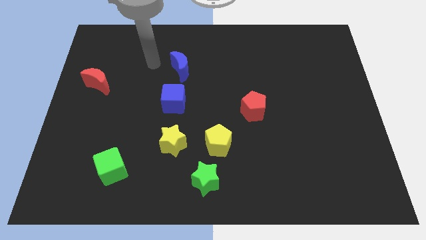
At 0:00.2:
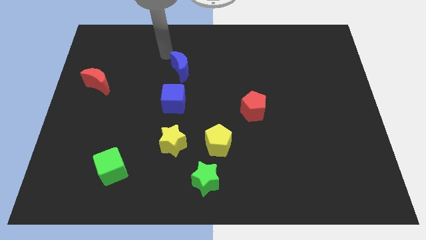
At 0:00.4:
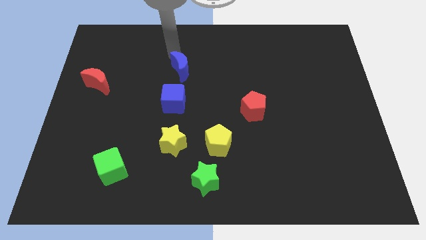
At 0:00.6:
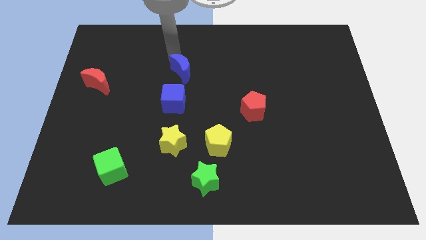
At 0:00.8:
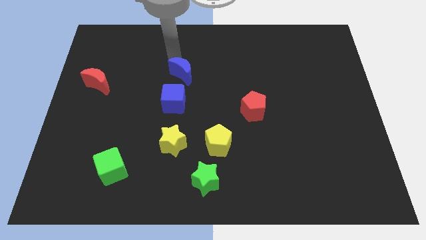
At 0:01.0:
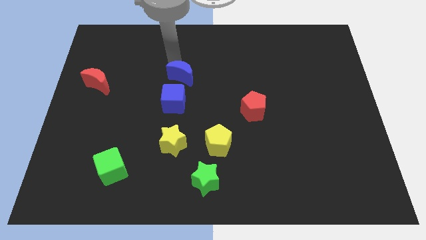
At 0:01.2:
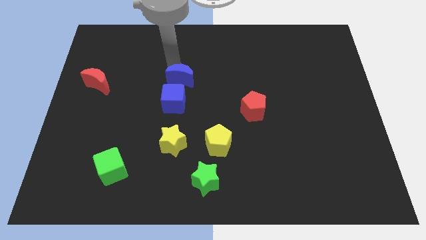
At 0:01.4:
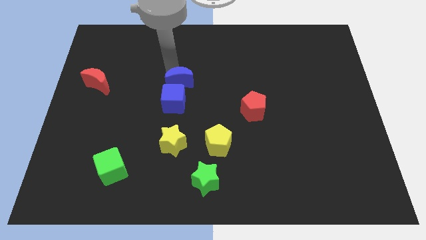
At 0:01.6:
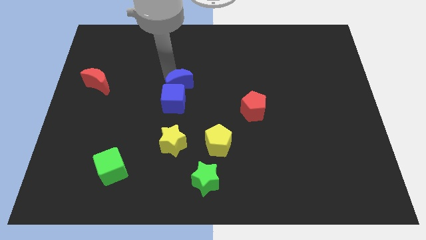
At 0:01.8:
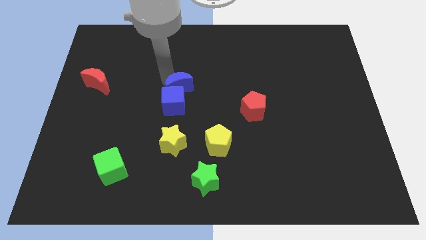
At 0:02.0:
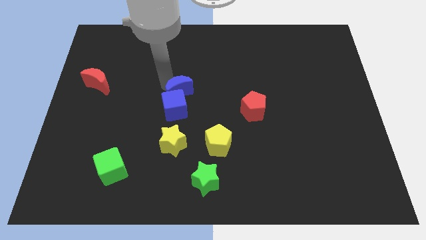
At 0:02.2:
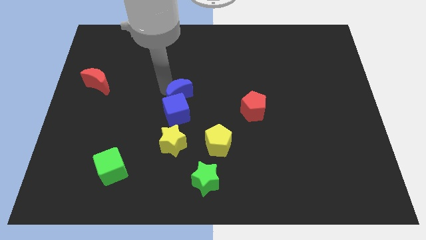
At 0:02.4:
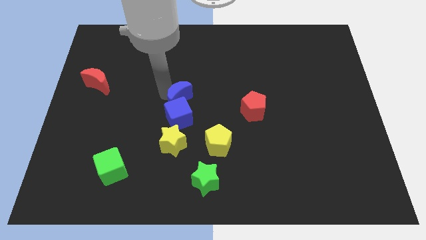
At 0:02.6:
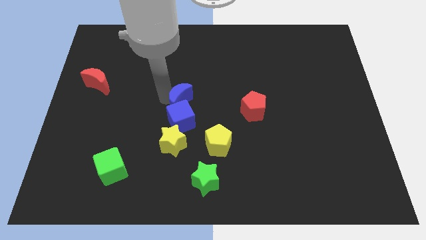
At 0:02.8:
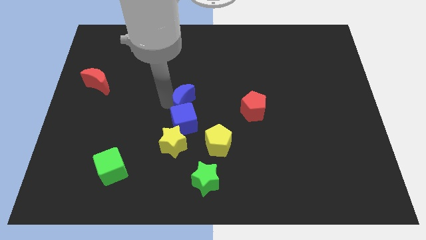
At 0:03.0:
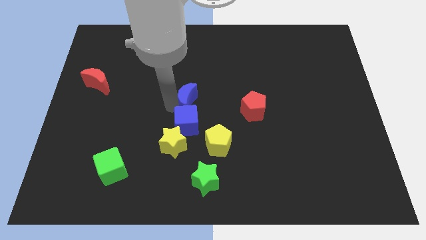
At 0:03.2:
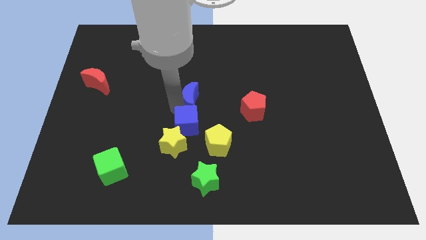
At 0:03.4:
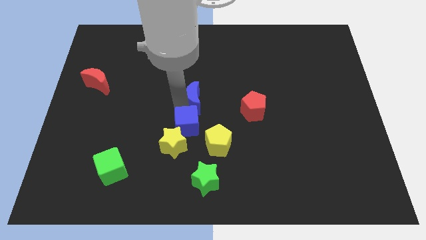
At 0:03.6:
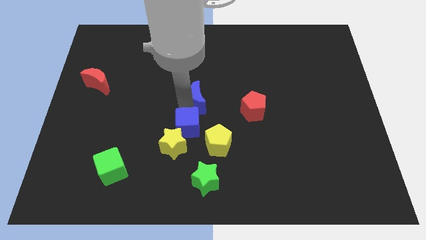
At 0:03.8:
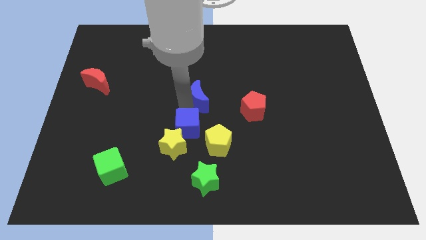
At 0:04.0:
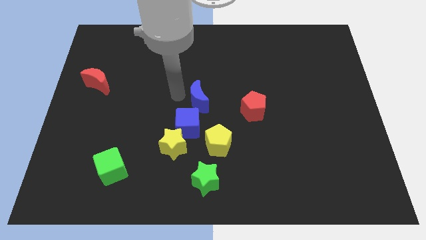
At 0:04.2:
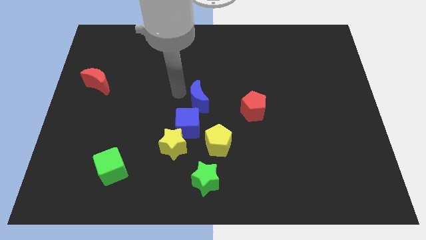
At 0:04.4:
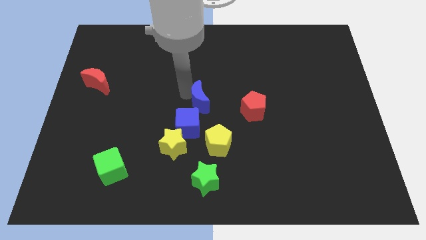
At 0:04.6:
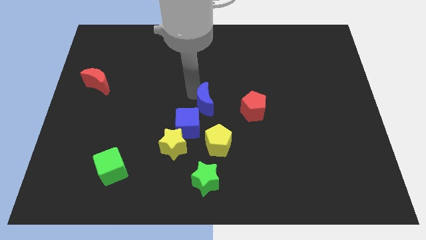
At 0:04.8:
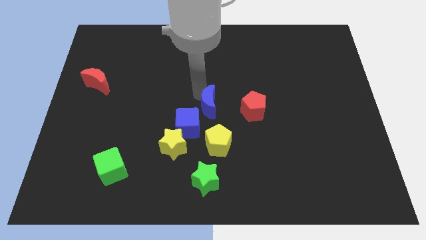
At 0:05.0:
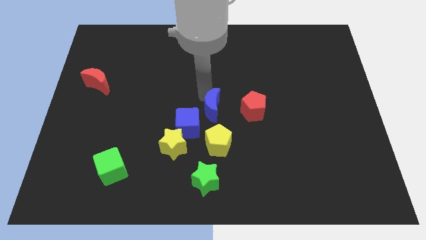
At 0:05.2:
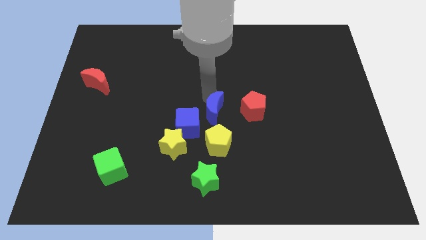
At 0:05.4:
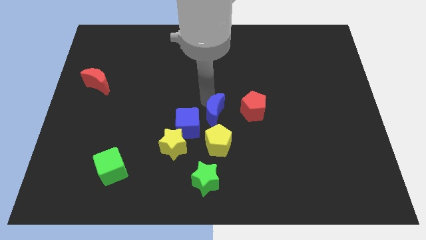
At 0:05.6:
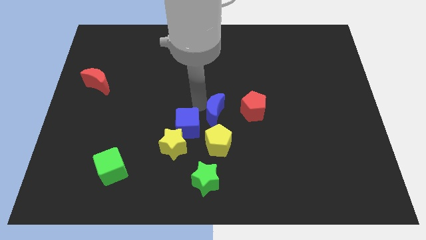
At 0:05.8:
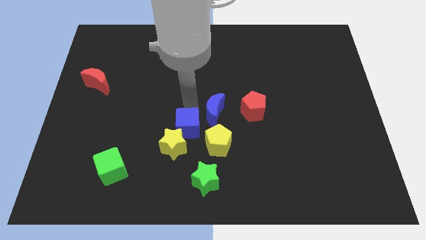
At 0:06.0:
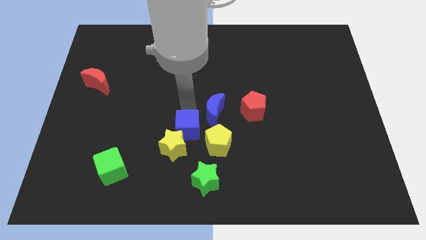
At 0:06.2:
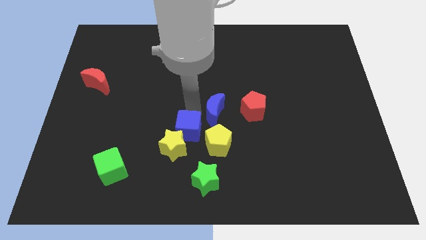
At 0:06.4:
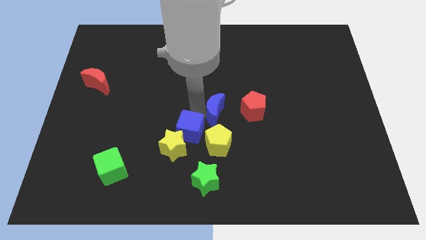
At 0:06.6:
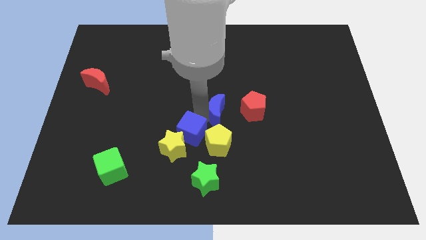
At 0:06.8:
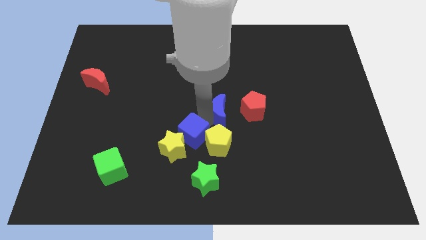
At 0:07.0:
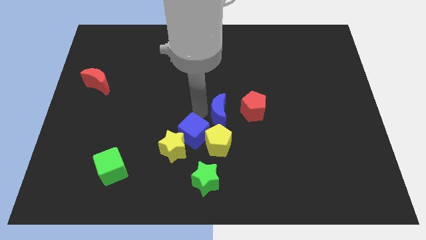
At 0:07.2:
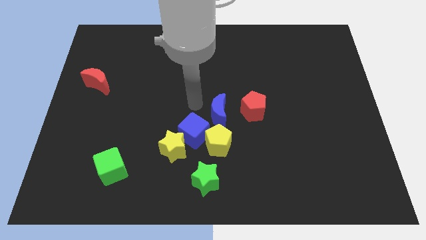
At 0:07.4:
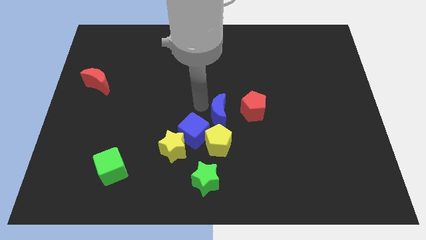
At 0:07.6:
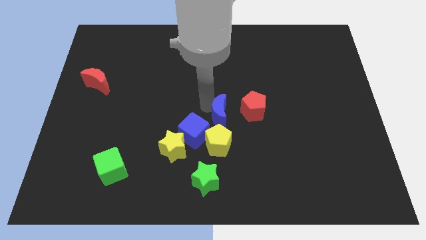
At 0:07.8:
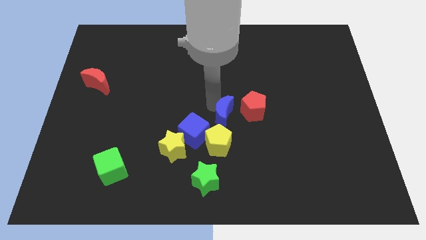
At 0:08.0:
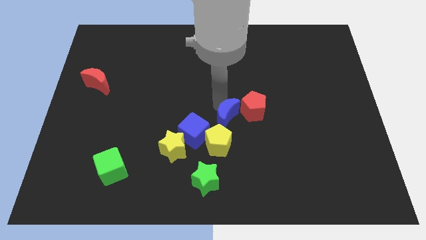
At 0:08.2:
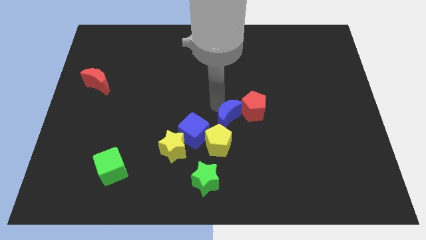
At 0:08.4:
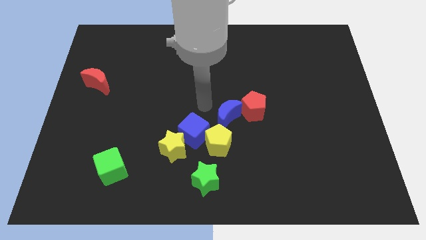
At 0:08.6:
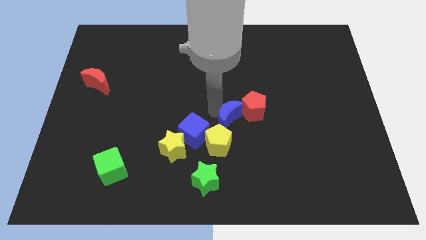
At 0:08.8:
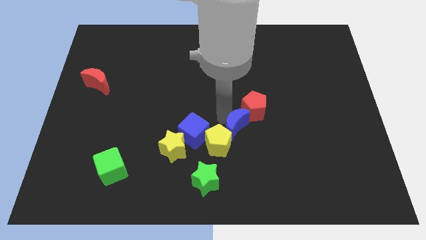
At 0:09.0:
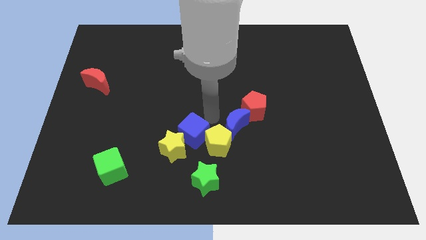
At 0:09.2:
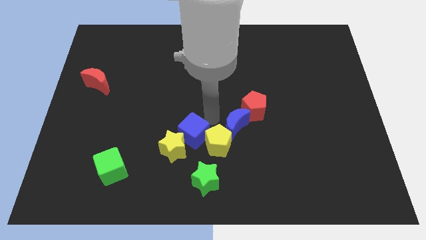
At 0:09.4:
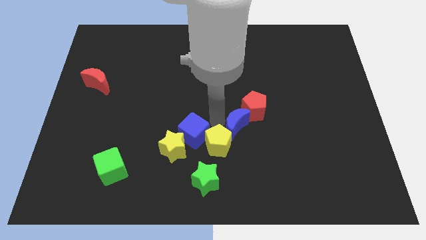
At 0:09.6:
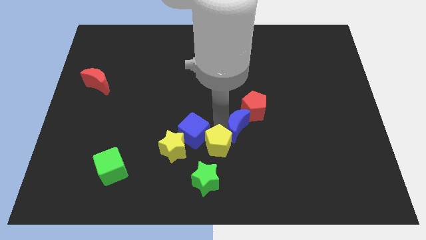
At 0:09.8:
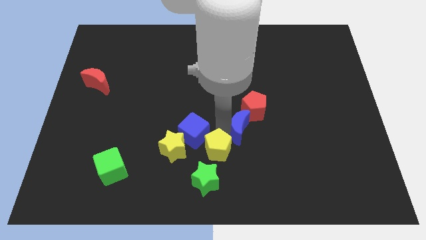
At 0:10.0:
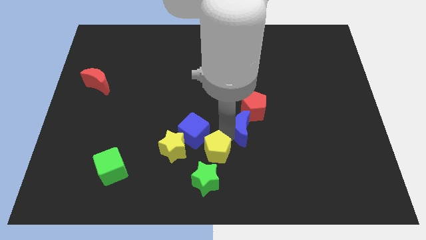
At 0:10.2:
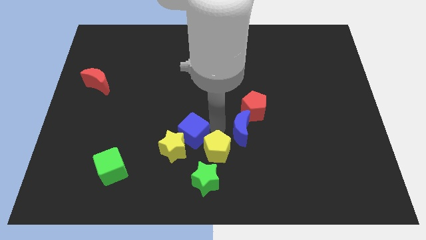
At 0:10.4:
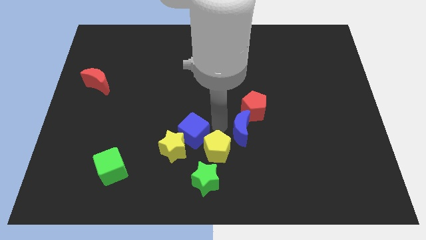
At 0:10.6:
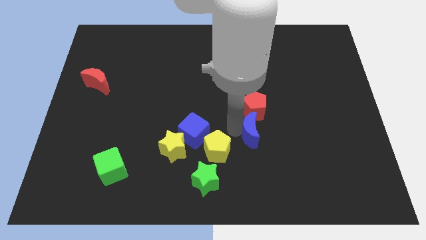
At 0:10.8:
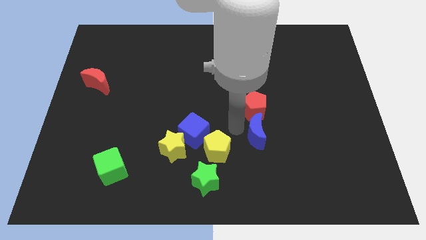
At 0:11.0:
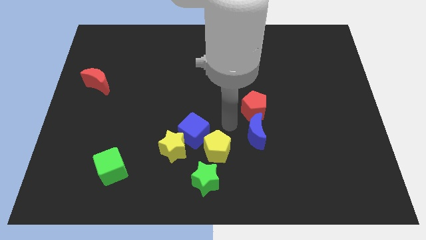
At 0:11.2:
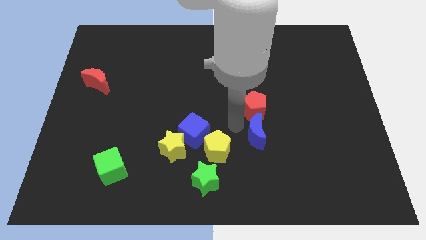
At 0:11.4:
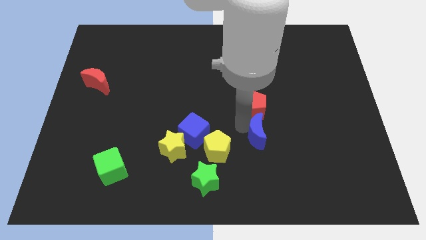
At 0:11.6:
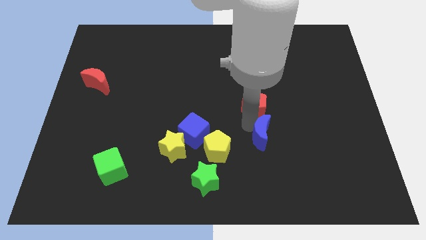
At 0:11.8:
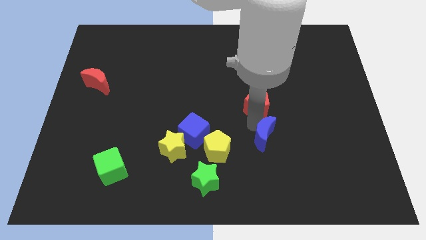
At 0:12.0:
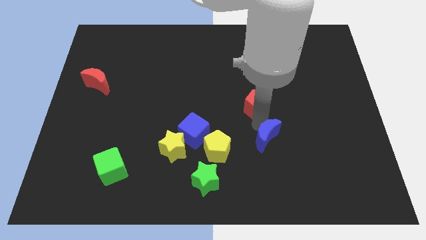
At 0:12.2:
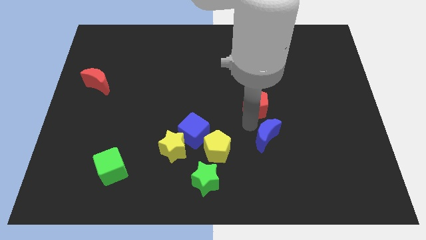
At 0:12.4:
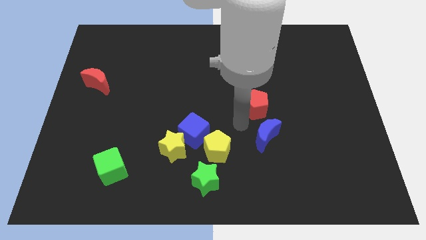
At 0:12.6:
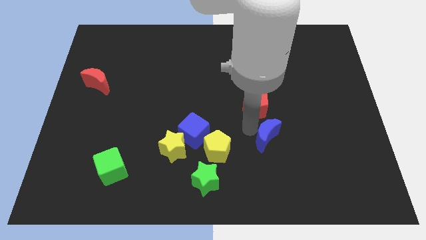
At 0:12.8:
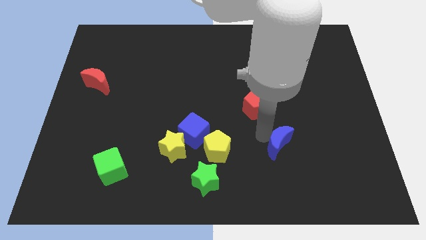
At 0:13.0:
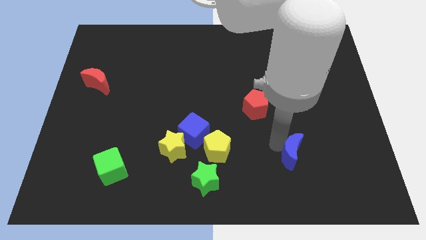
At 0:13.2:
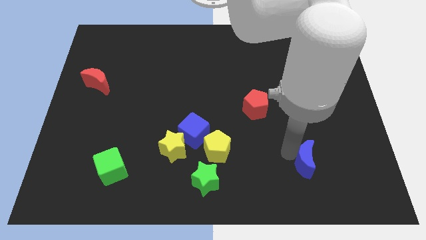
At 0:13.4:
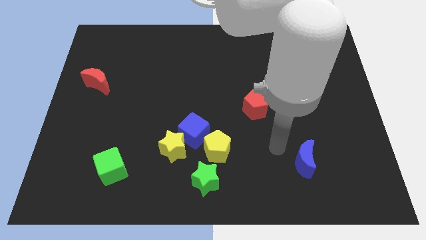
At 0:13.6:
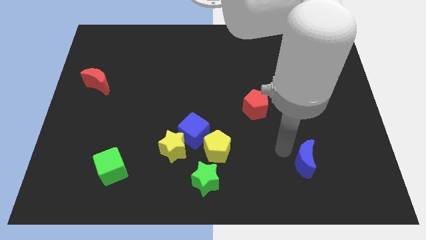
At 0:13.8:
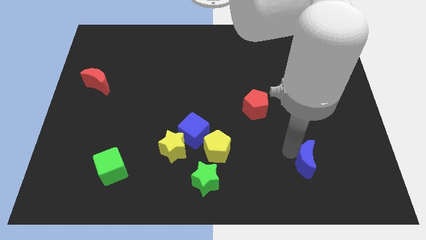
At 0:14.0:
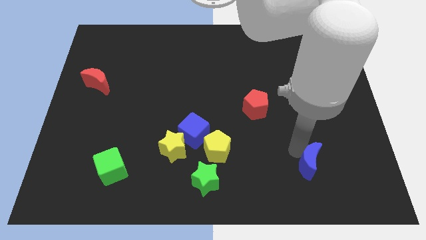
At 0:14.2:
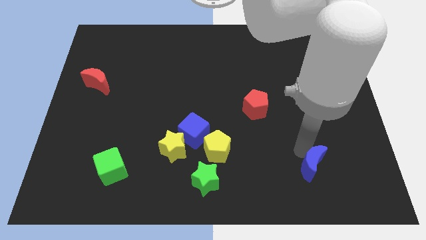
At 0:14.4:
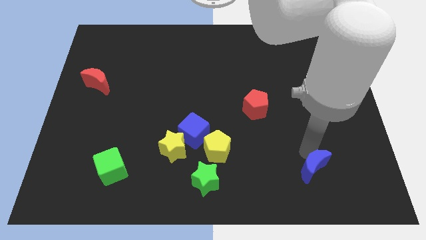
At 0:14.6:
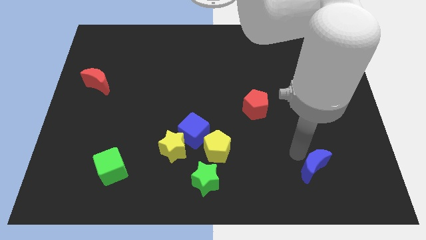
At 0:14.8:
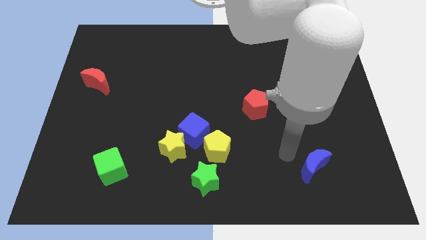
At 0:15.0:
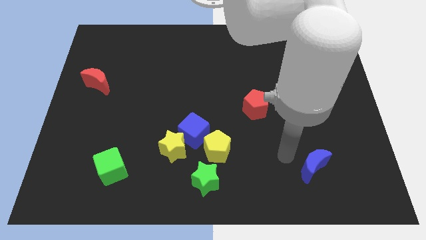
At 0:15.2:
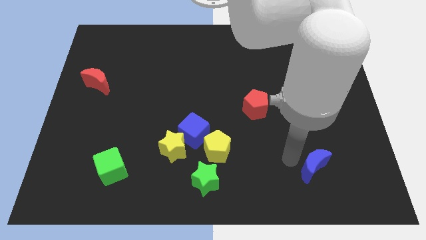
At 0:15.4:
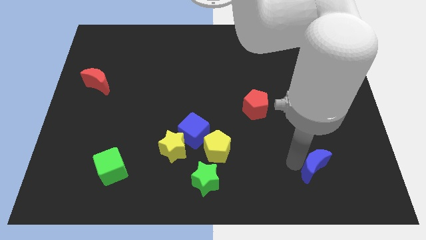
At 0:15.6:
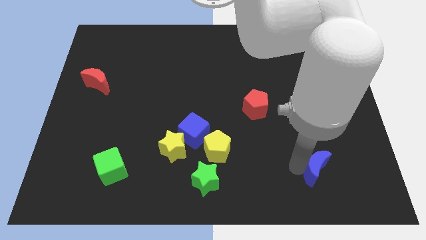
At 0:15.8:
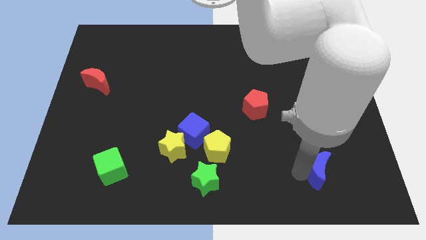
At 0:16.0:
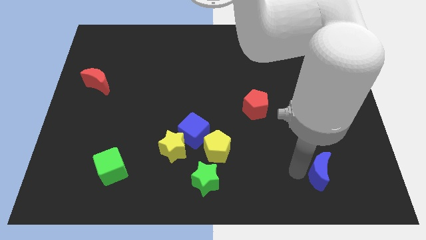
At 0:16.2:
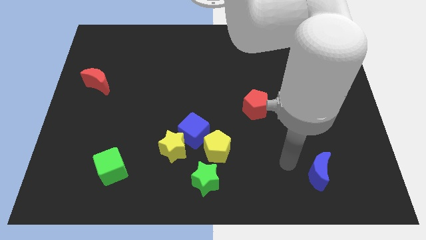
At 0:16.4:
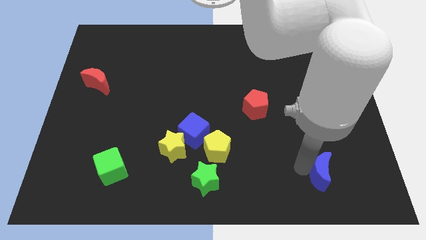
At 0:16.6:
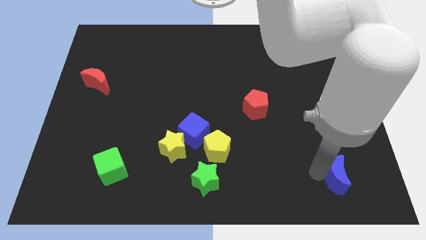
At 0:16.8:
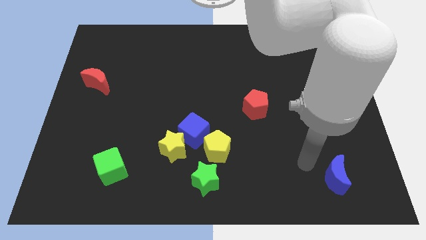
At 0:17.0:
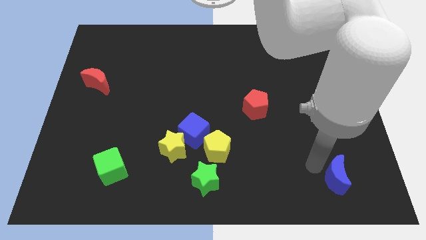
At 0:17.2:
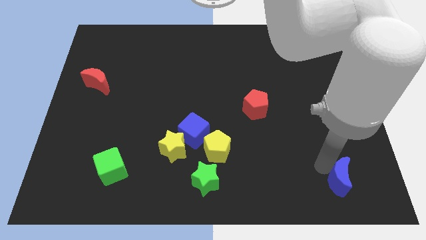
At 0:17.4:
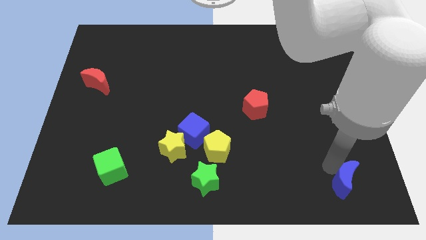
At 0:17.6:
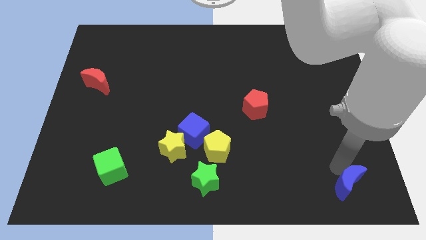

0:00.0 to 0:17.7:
put the blue moon to the bottom right corner
